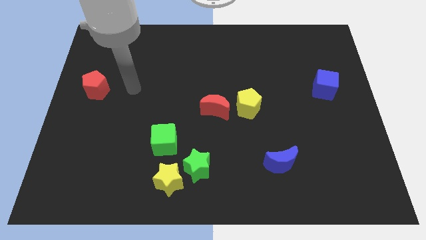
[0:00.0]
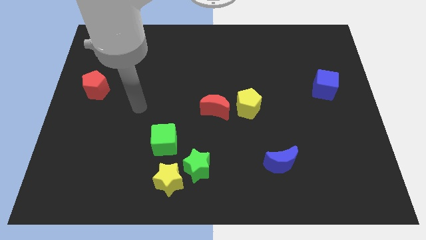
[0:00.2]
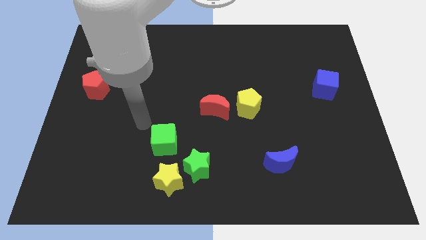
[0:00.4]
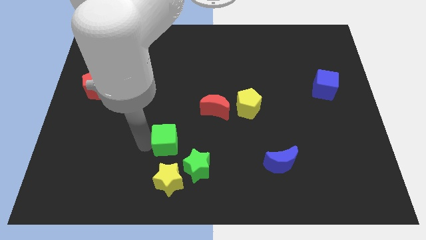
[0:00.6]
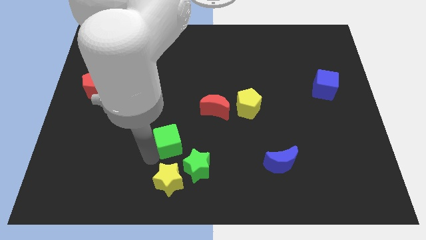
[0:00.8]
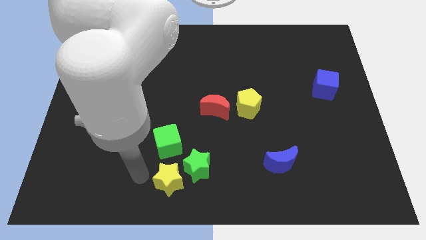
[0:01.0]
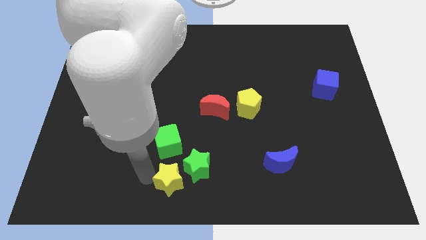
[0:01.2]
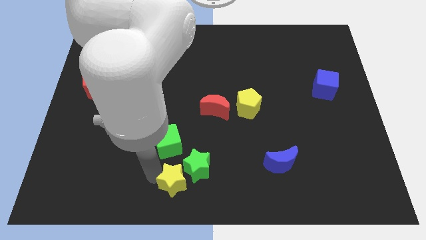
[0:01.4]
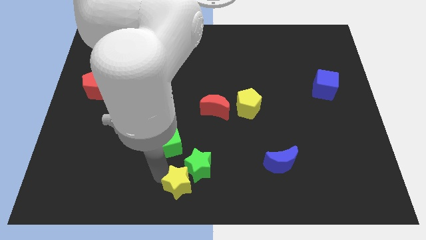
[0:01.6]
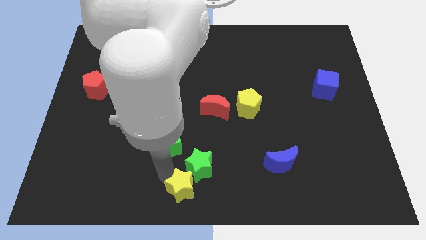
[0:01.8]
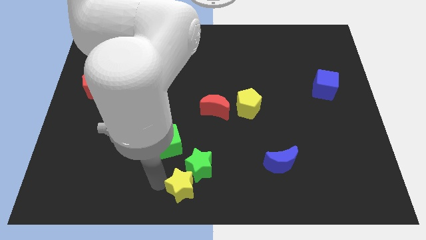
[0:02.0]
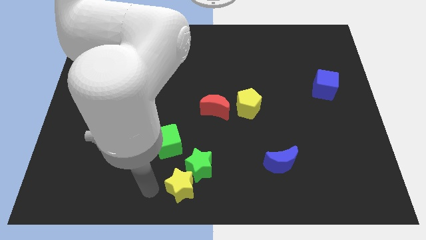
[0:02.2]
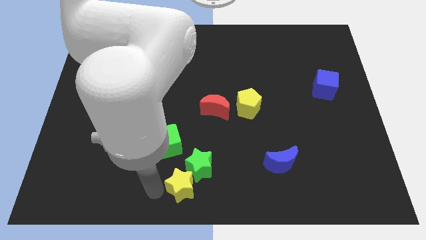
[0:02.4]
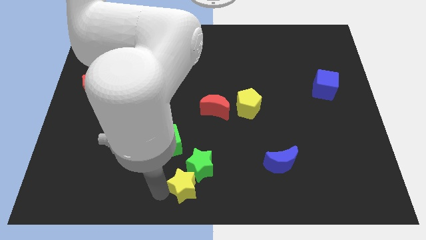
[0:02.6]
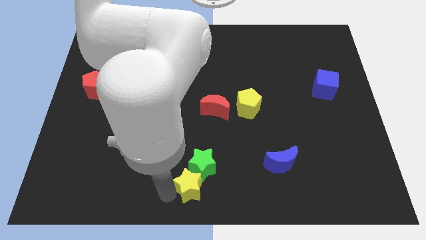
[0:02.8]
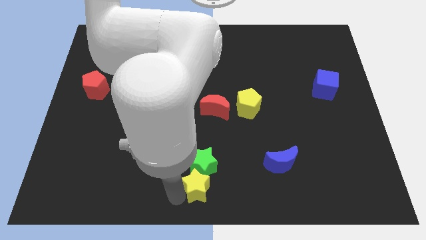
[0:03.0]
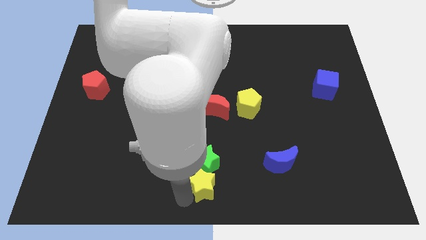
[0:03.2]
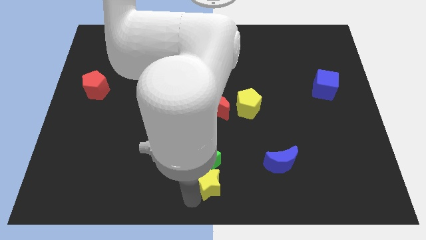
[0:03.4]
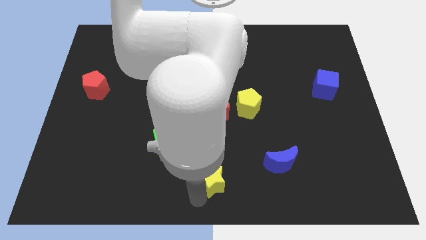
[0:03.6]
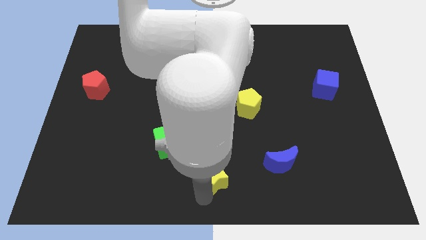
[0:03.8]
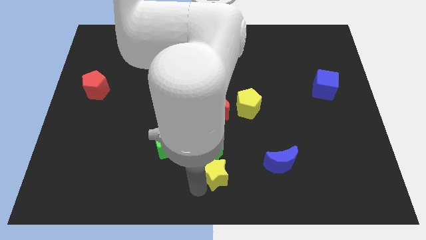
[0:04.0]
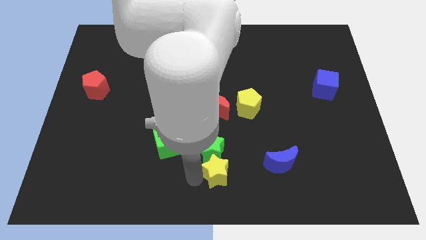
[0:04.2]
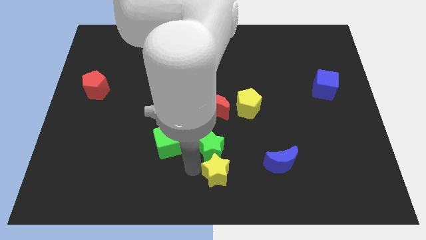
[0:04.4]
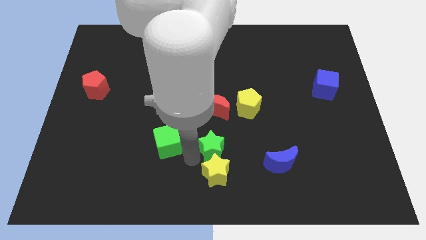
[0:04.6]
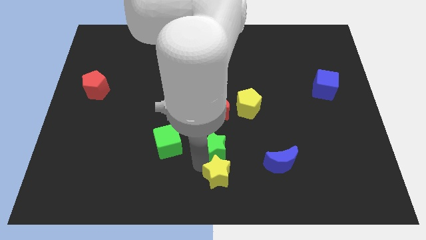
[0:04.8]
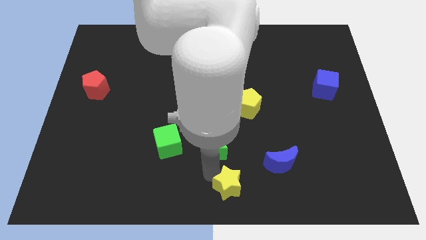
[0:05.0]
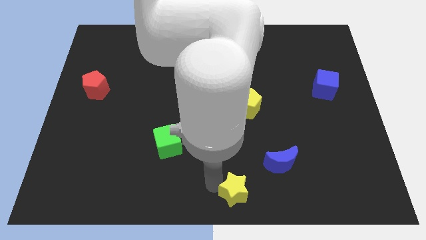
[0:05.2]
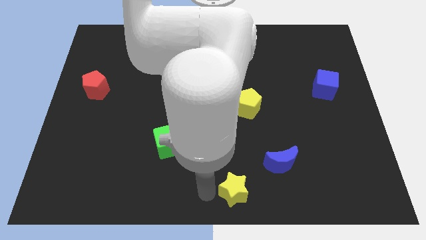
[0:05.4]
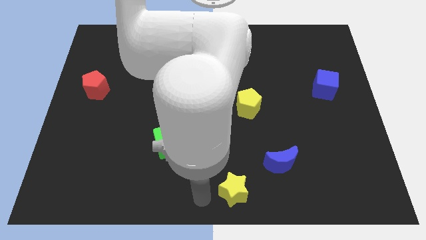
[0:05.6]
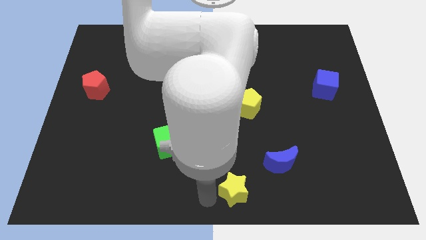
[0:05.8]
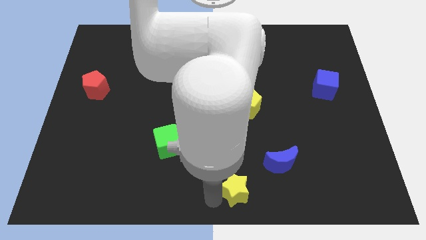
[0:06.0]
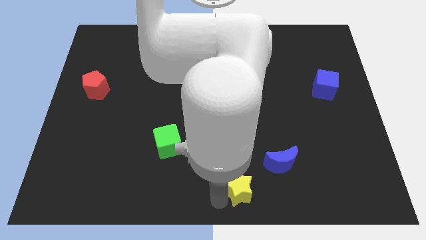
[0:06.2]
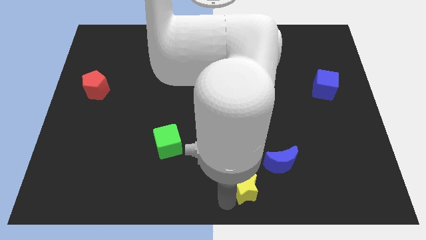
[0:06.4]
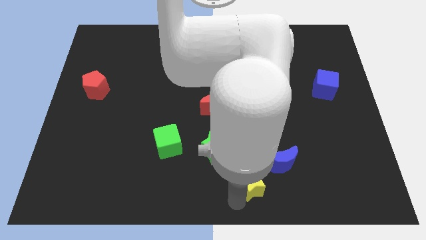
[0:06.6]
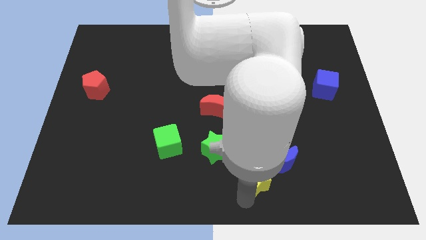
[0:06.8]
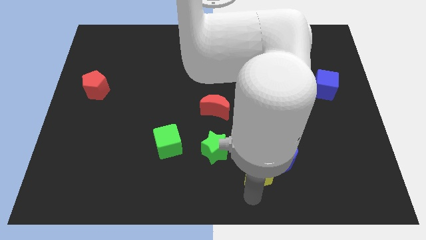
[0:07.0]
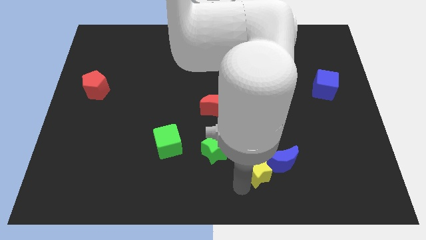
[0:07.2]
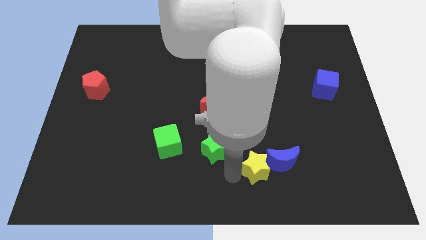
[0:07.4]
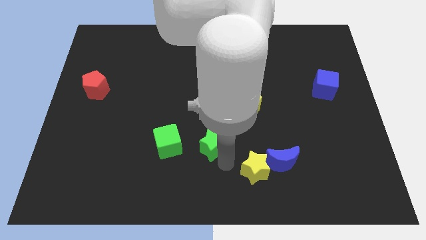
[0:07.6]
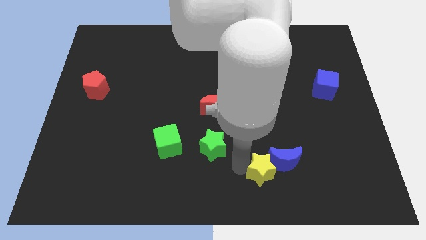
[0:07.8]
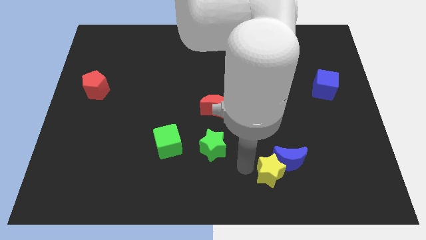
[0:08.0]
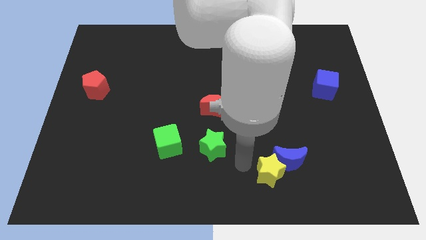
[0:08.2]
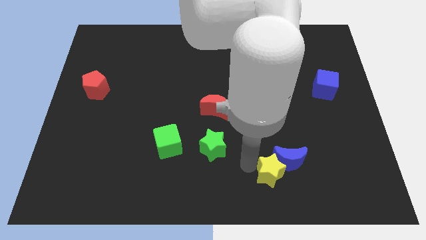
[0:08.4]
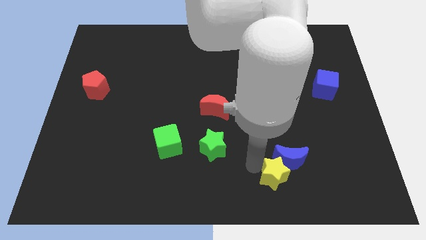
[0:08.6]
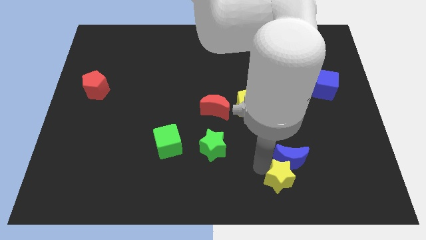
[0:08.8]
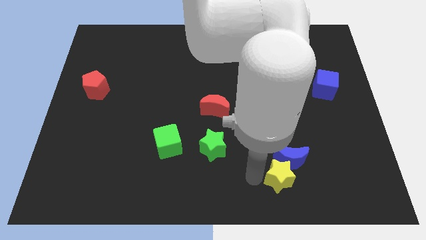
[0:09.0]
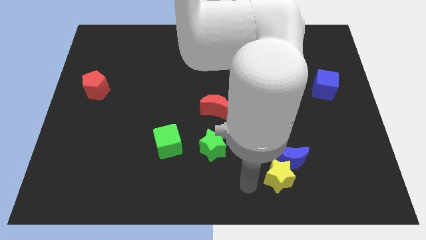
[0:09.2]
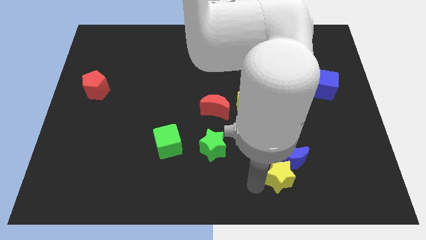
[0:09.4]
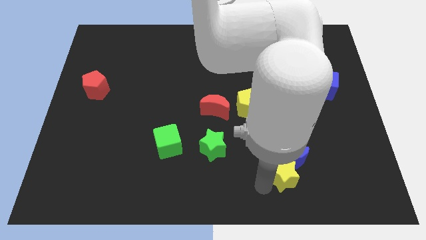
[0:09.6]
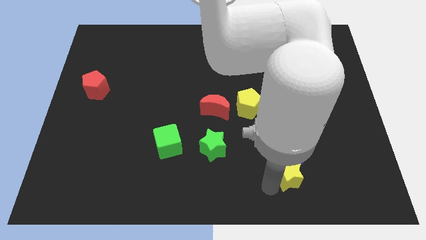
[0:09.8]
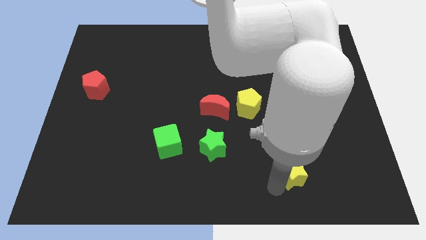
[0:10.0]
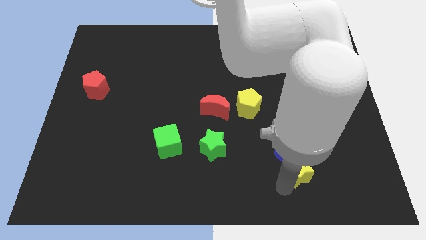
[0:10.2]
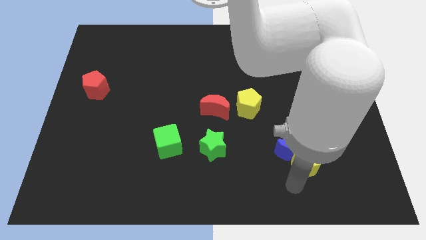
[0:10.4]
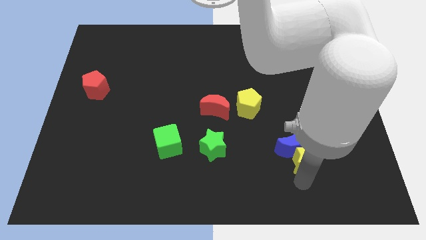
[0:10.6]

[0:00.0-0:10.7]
move the yellow star to the right of the blue moon

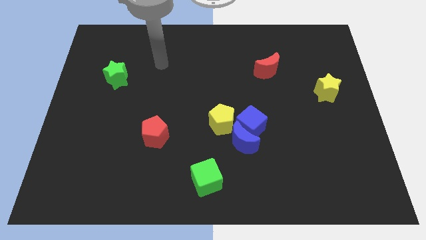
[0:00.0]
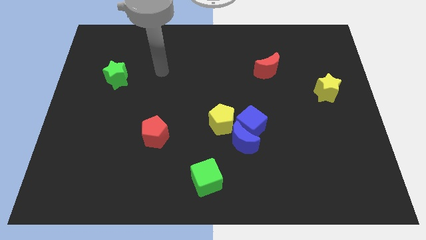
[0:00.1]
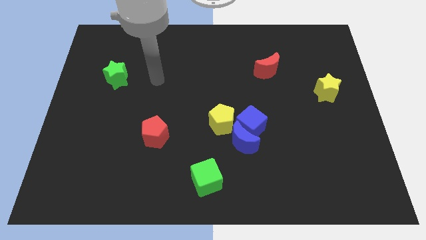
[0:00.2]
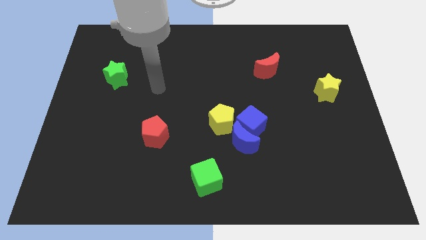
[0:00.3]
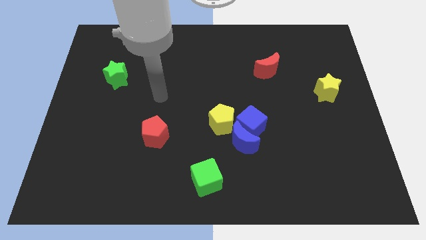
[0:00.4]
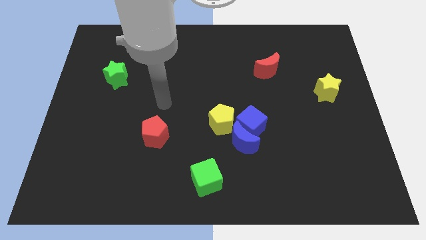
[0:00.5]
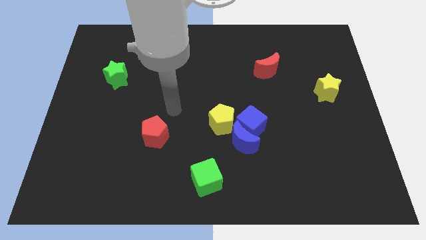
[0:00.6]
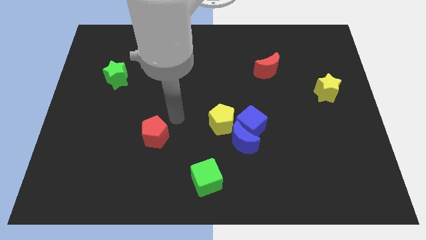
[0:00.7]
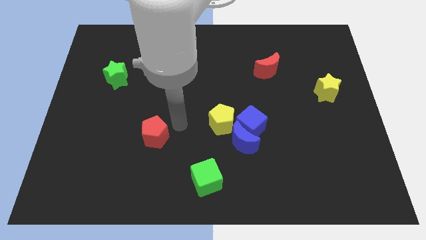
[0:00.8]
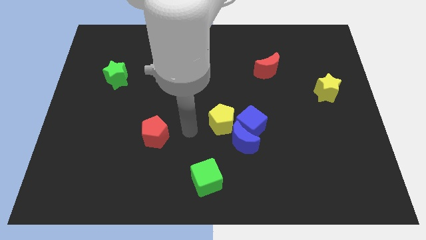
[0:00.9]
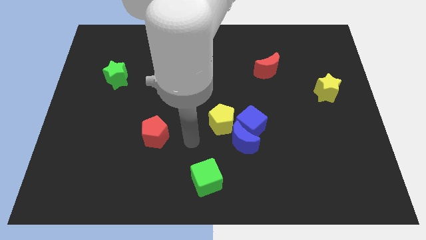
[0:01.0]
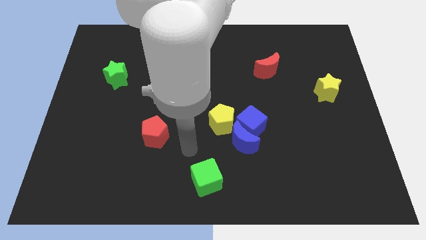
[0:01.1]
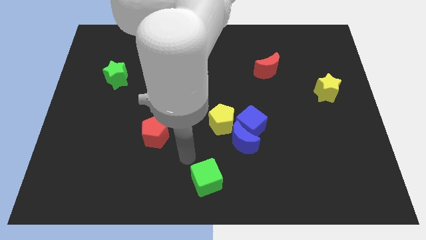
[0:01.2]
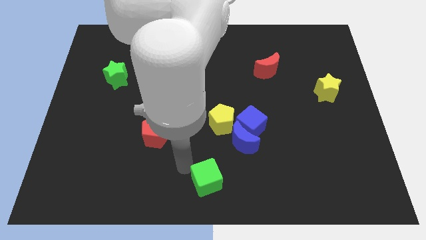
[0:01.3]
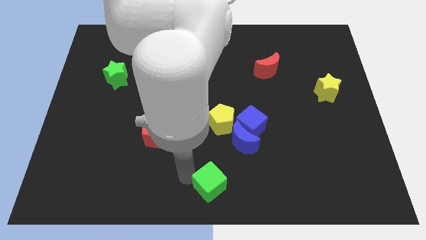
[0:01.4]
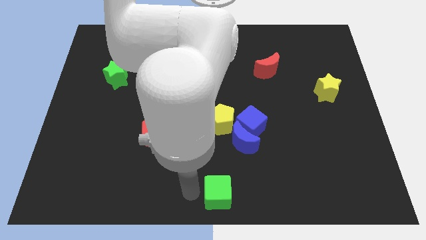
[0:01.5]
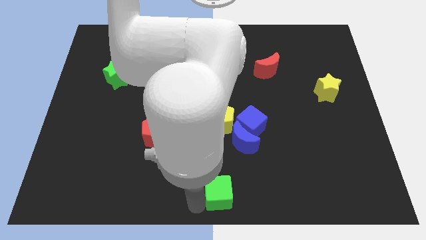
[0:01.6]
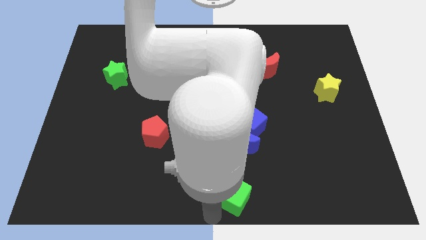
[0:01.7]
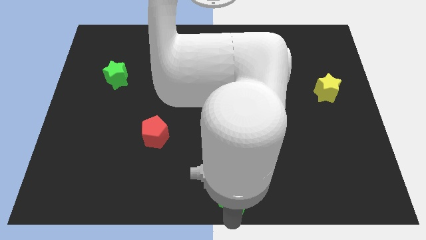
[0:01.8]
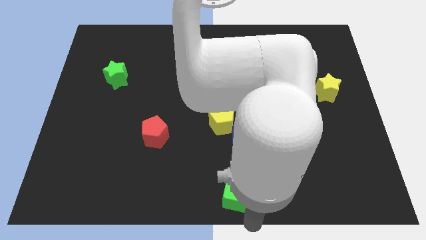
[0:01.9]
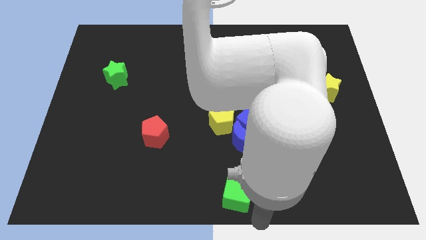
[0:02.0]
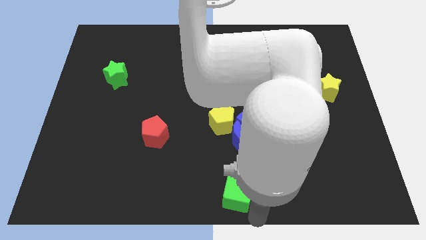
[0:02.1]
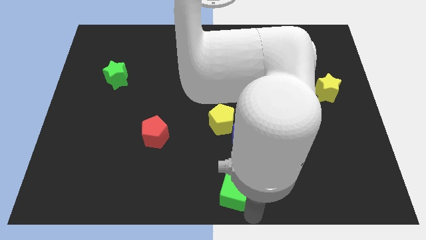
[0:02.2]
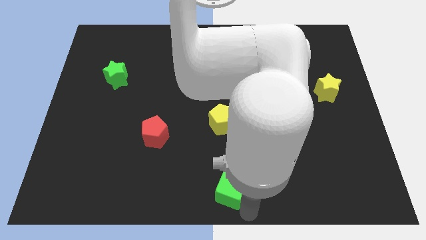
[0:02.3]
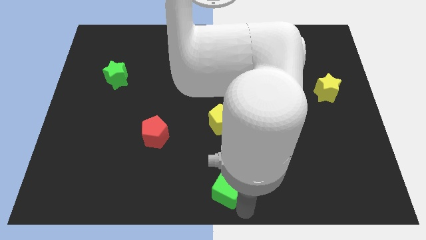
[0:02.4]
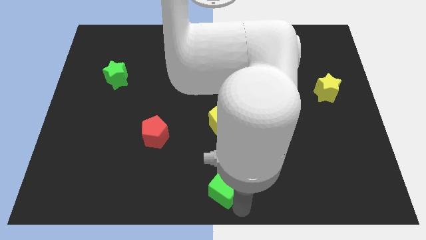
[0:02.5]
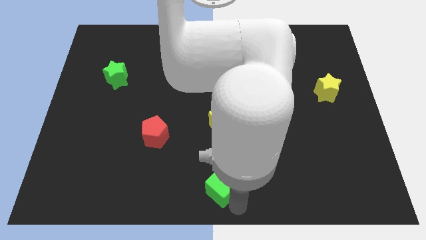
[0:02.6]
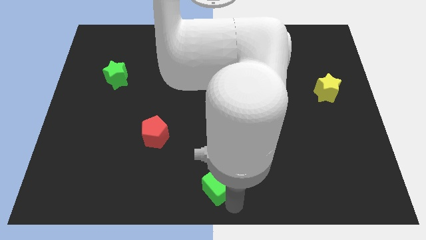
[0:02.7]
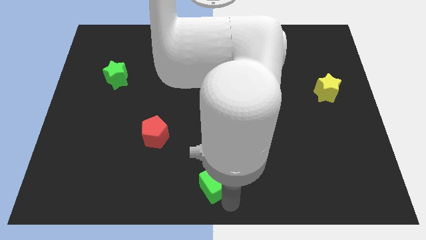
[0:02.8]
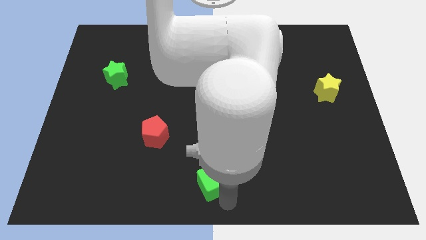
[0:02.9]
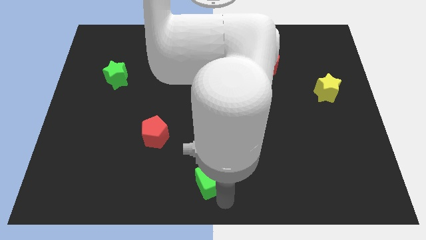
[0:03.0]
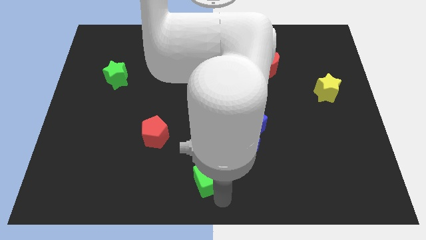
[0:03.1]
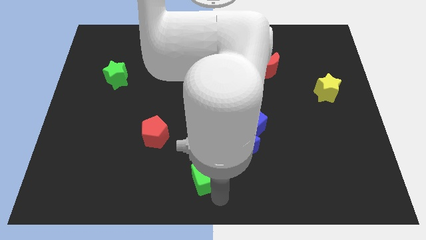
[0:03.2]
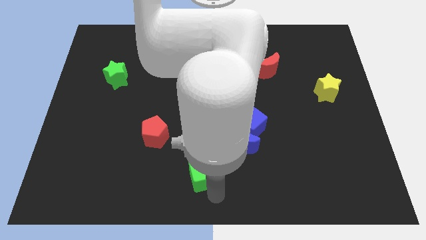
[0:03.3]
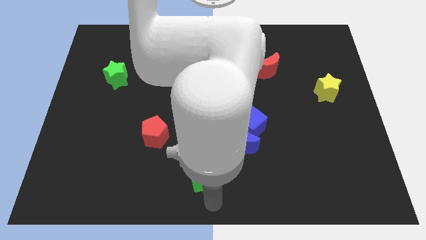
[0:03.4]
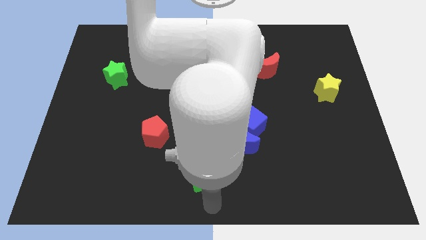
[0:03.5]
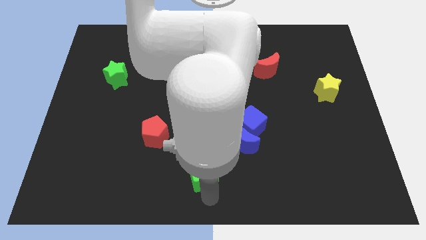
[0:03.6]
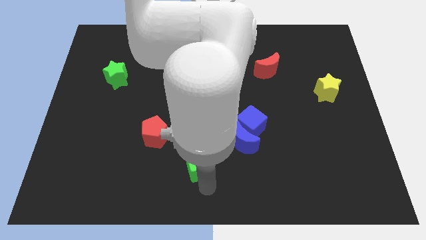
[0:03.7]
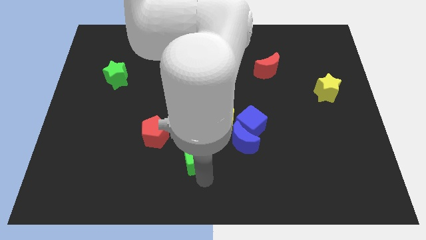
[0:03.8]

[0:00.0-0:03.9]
put the green cube to the left of the blue moon
